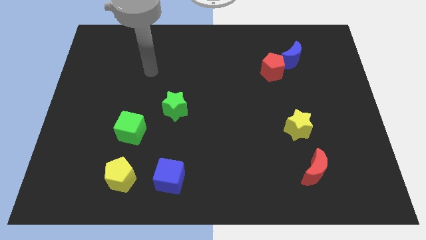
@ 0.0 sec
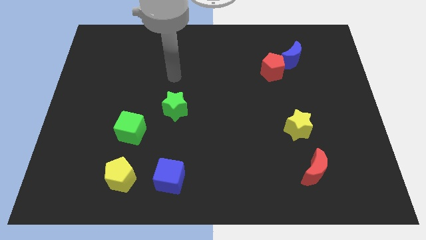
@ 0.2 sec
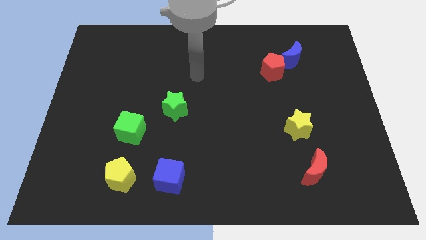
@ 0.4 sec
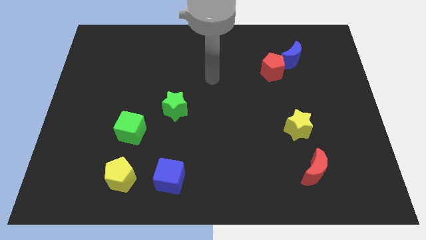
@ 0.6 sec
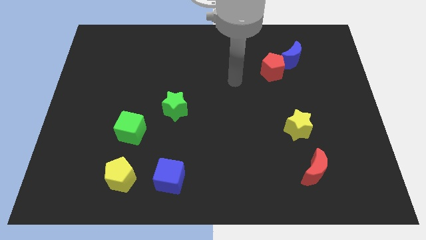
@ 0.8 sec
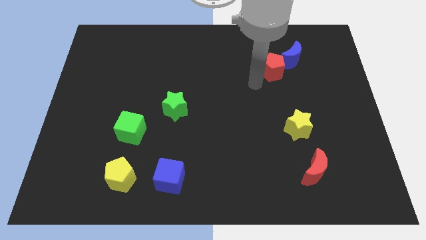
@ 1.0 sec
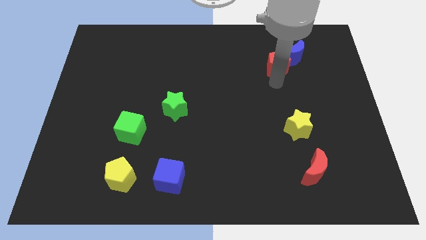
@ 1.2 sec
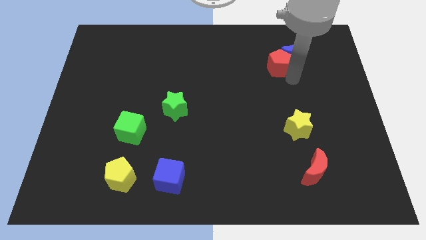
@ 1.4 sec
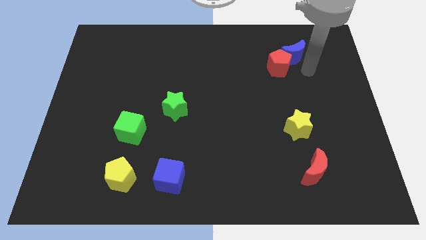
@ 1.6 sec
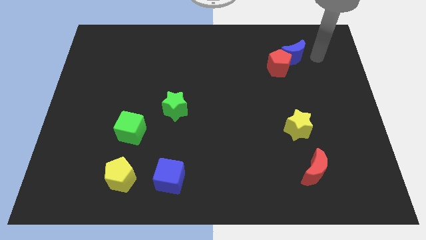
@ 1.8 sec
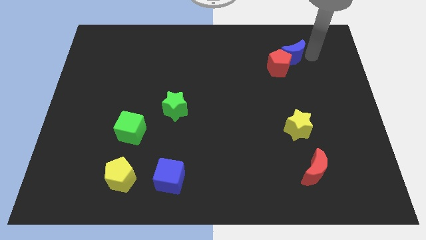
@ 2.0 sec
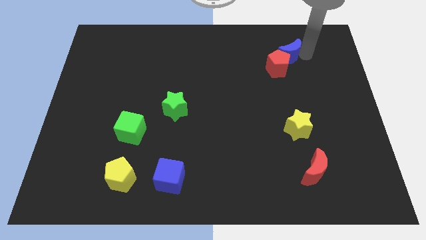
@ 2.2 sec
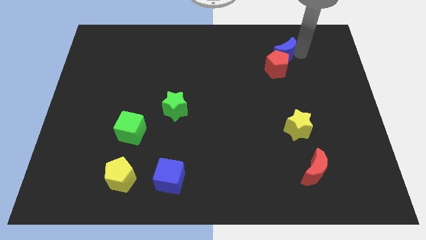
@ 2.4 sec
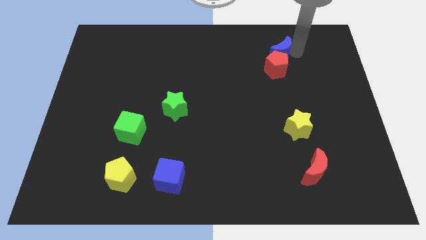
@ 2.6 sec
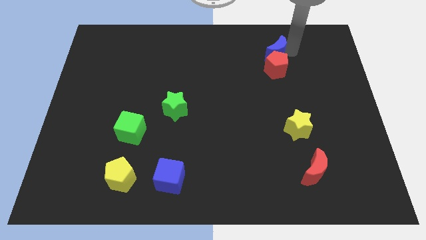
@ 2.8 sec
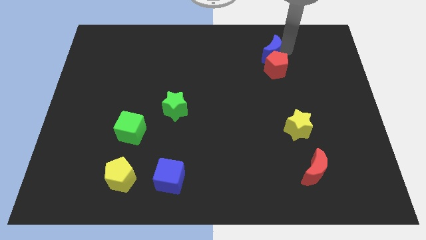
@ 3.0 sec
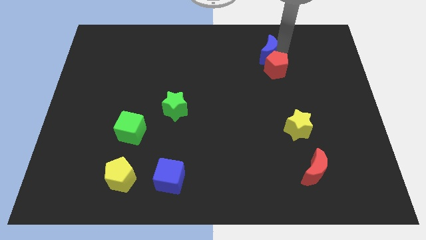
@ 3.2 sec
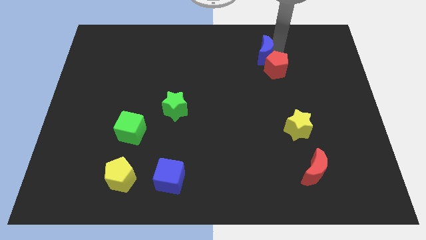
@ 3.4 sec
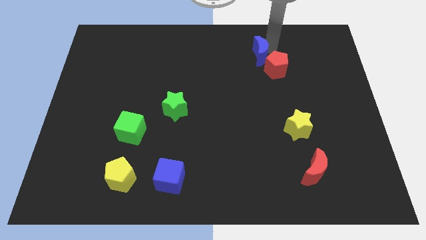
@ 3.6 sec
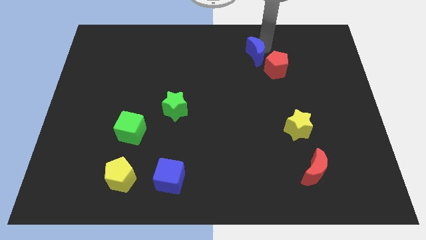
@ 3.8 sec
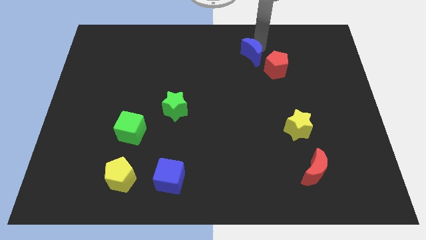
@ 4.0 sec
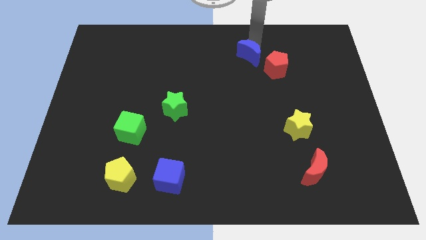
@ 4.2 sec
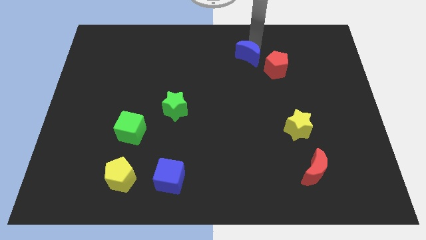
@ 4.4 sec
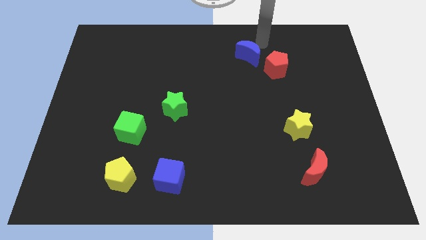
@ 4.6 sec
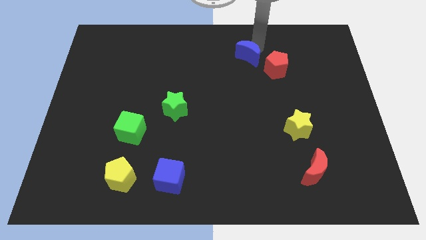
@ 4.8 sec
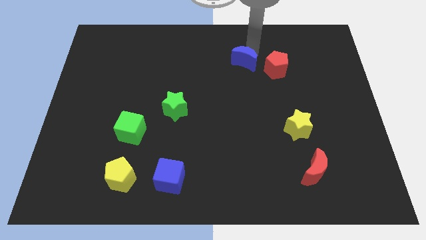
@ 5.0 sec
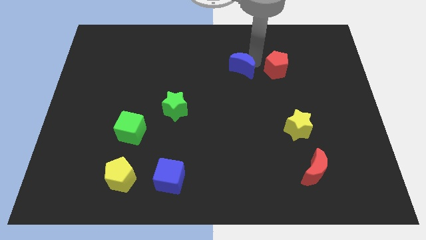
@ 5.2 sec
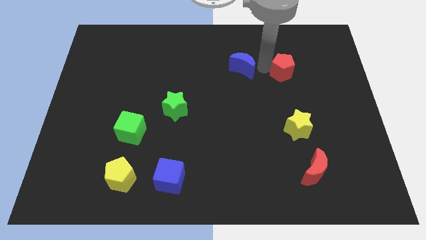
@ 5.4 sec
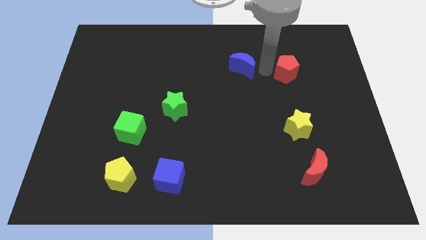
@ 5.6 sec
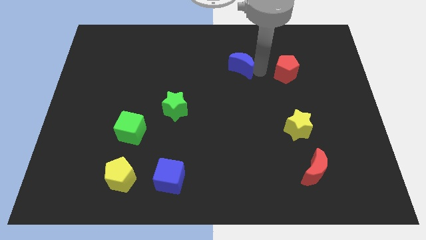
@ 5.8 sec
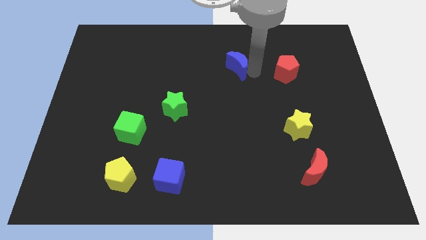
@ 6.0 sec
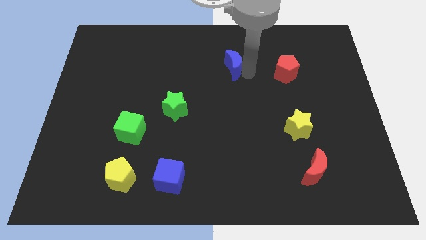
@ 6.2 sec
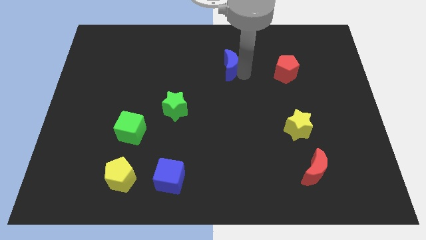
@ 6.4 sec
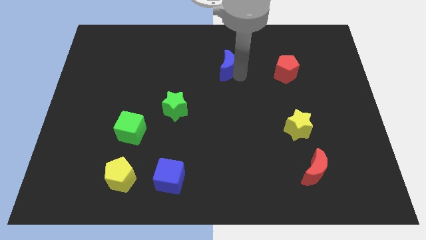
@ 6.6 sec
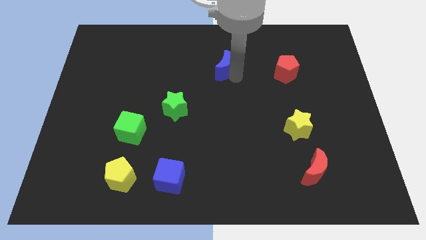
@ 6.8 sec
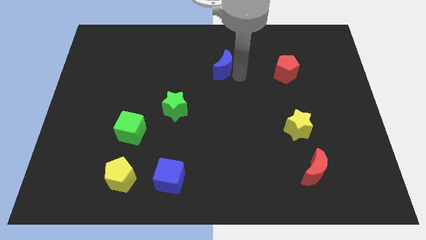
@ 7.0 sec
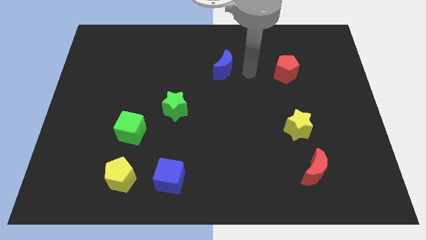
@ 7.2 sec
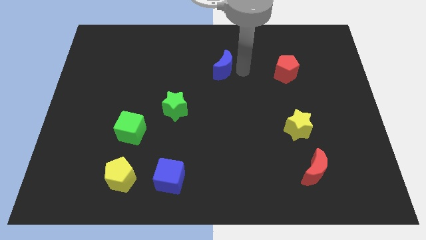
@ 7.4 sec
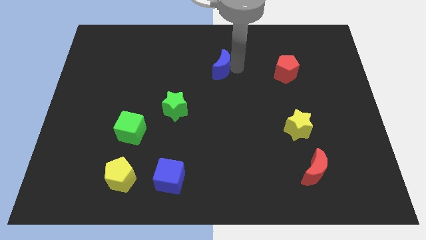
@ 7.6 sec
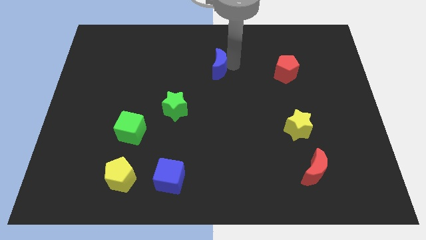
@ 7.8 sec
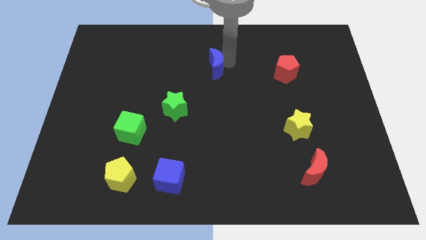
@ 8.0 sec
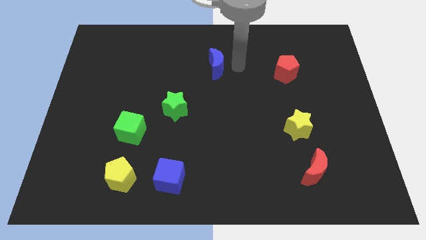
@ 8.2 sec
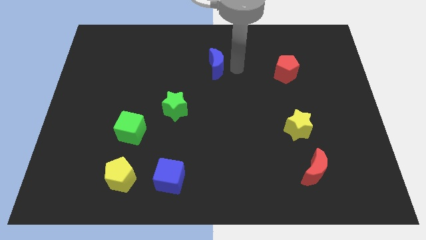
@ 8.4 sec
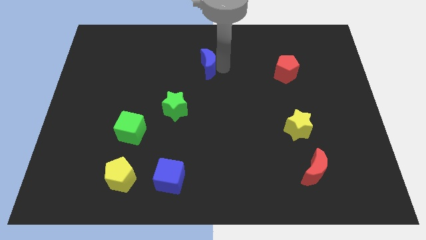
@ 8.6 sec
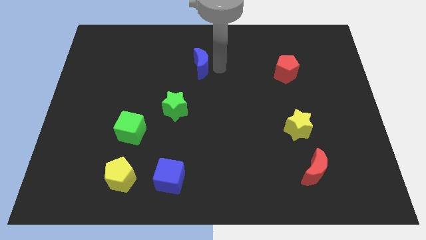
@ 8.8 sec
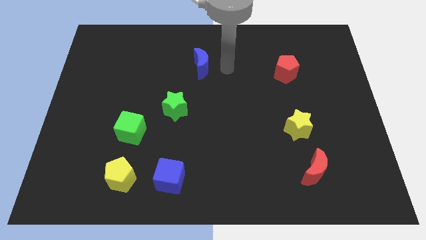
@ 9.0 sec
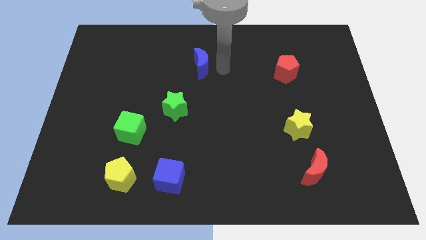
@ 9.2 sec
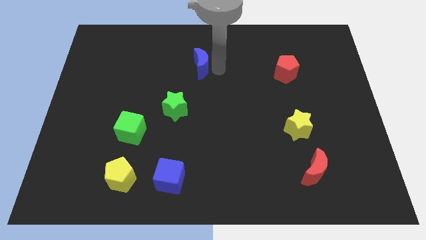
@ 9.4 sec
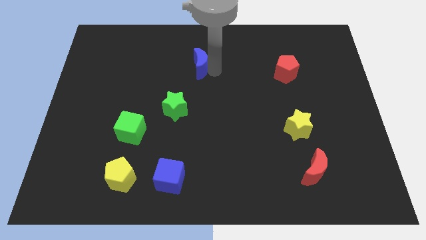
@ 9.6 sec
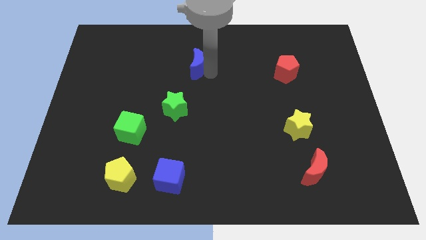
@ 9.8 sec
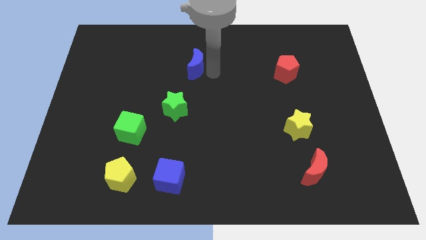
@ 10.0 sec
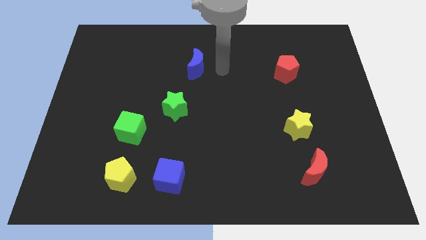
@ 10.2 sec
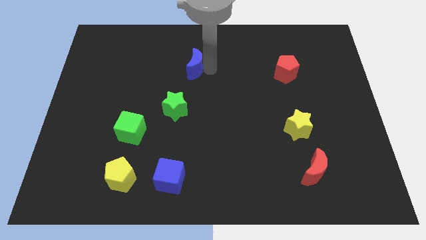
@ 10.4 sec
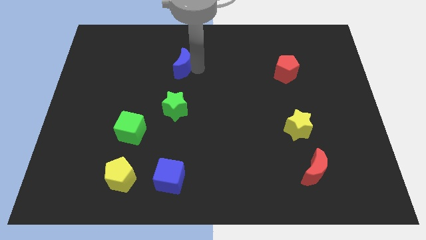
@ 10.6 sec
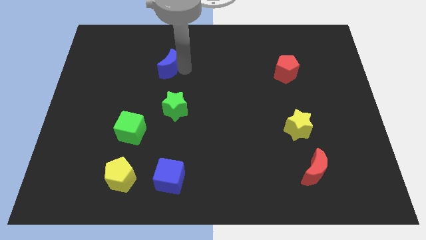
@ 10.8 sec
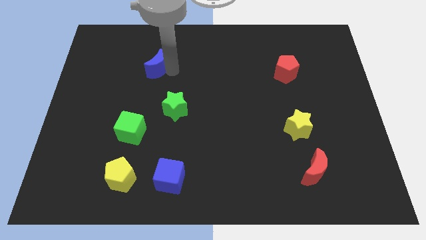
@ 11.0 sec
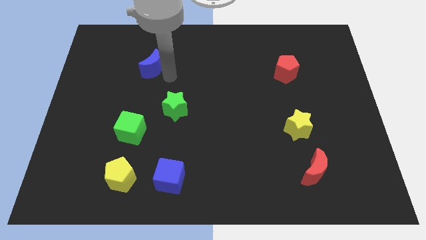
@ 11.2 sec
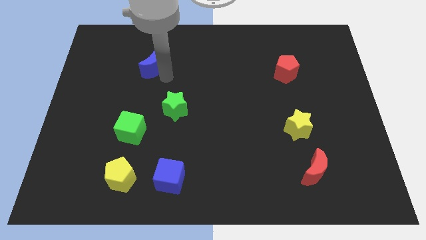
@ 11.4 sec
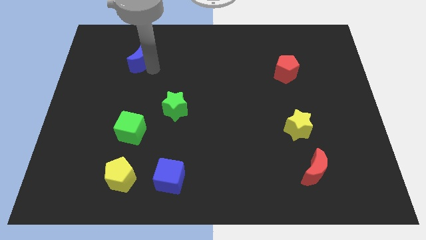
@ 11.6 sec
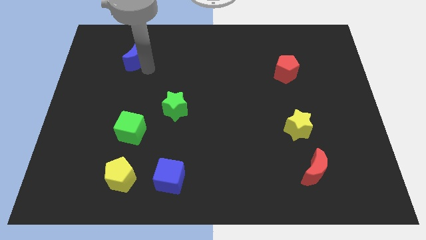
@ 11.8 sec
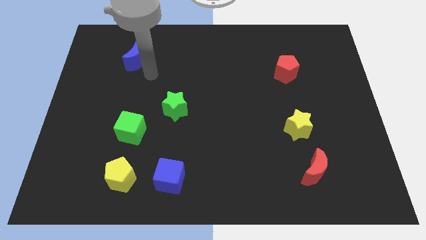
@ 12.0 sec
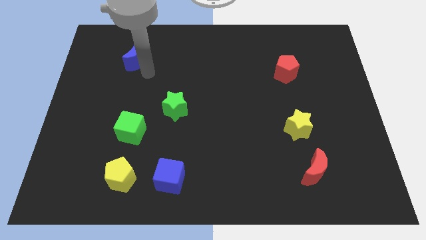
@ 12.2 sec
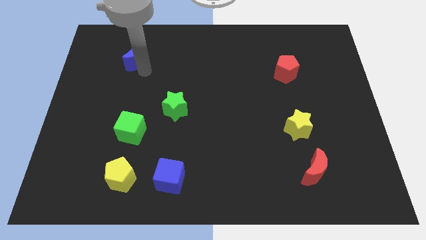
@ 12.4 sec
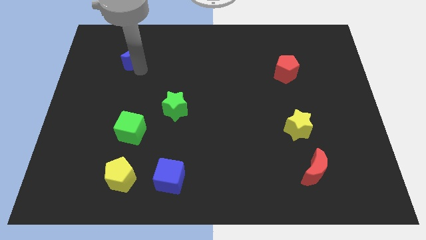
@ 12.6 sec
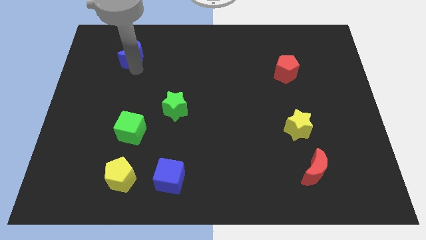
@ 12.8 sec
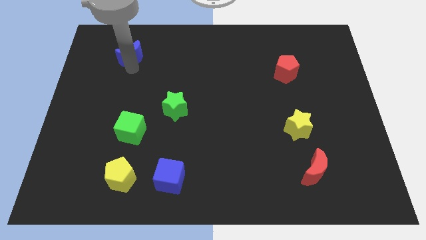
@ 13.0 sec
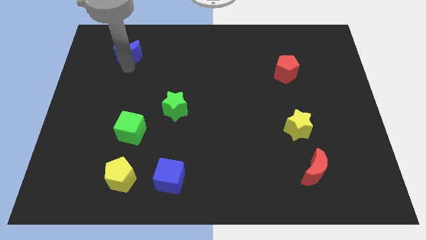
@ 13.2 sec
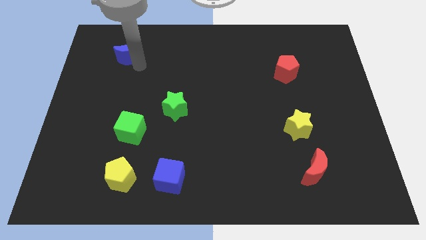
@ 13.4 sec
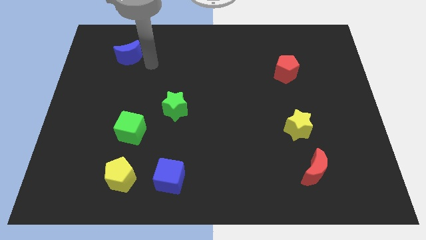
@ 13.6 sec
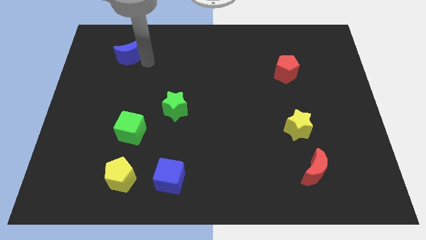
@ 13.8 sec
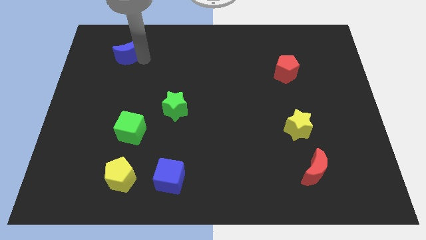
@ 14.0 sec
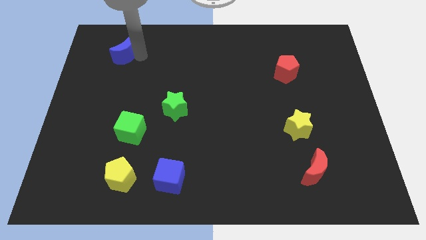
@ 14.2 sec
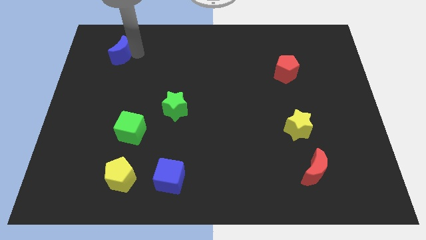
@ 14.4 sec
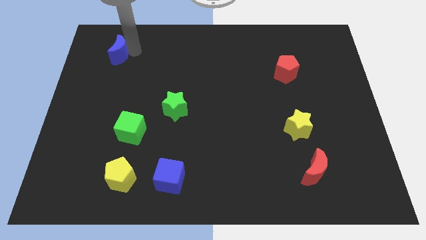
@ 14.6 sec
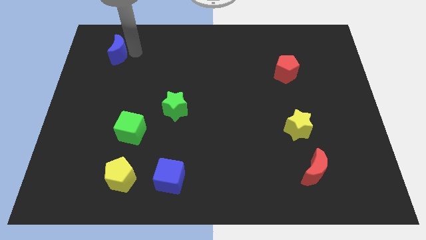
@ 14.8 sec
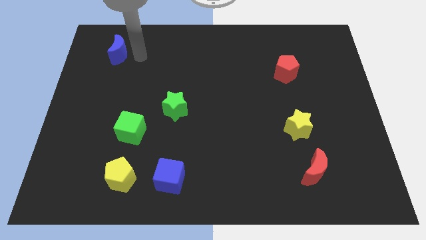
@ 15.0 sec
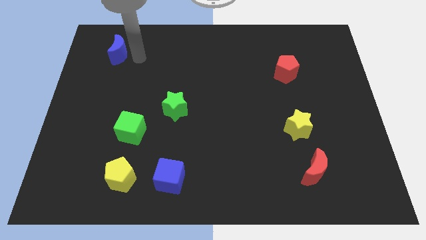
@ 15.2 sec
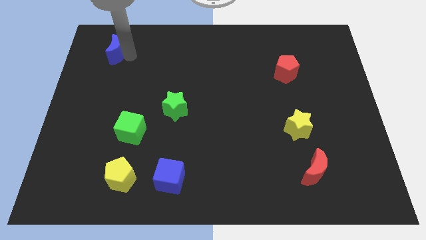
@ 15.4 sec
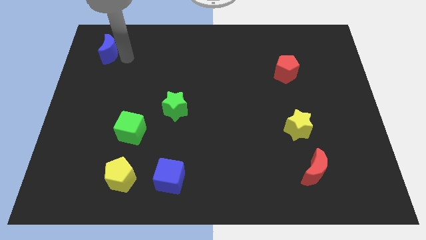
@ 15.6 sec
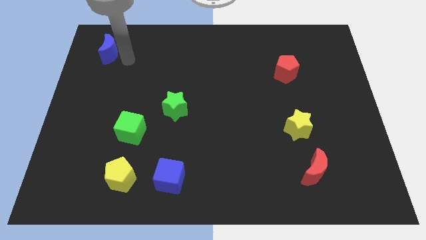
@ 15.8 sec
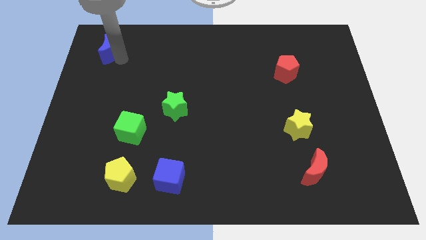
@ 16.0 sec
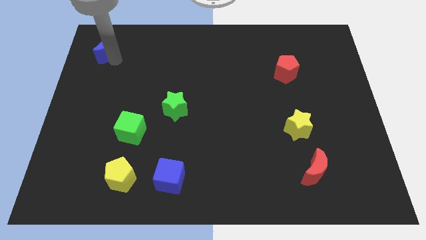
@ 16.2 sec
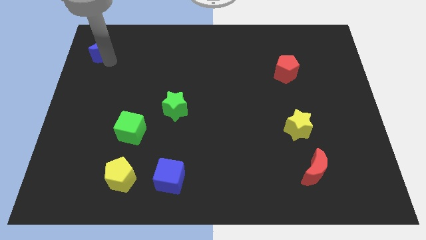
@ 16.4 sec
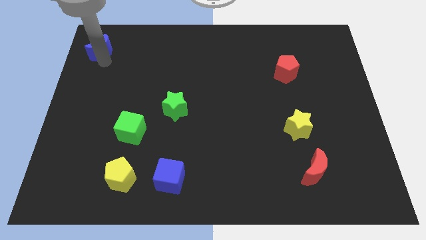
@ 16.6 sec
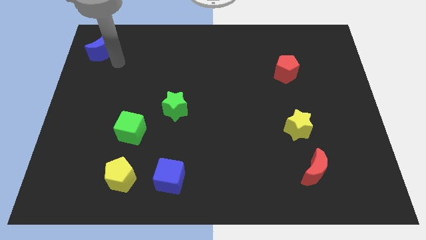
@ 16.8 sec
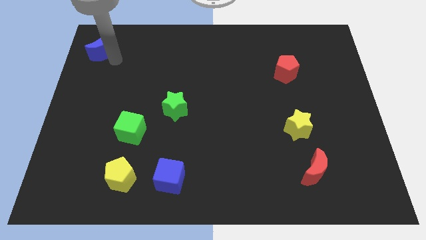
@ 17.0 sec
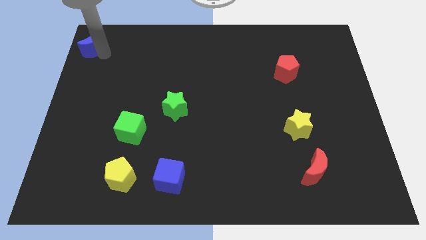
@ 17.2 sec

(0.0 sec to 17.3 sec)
move the blue moon to the top left
